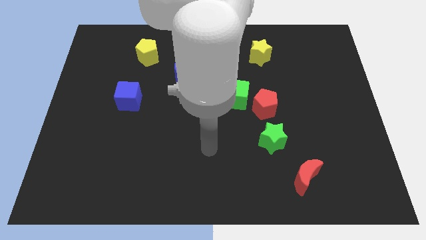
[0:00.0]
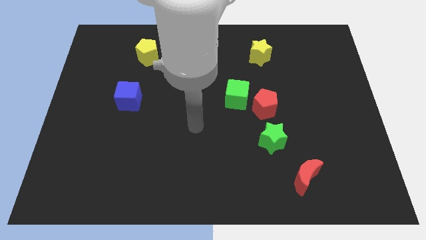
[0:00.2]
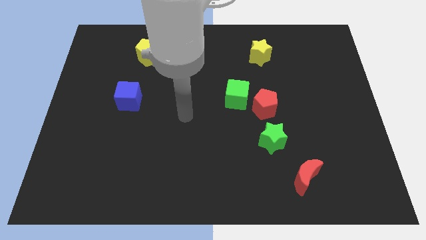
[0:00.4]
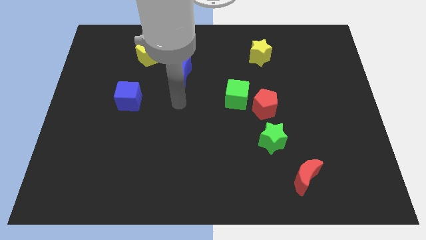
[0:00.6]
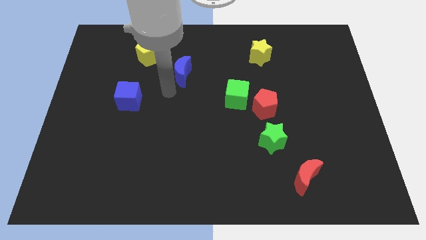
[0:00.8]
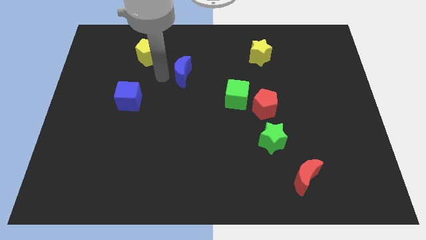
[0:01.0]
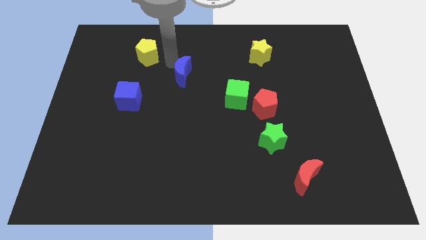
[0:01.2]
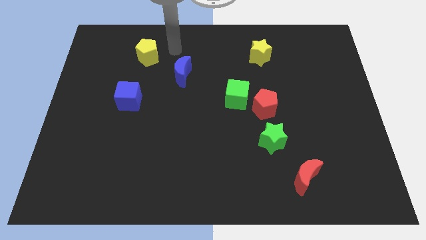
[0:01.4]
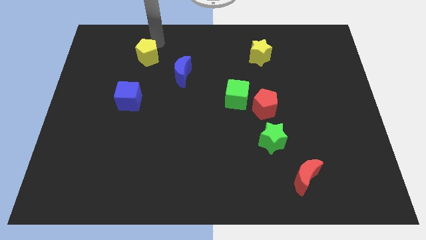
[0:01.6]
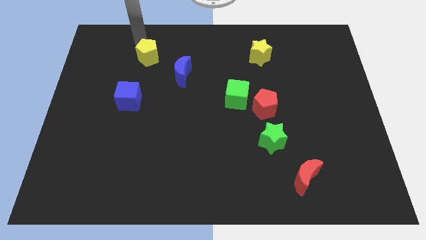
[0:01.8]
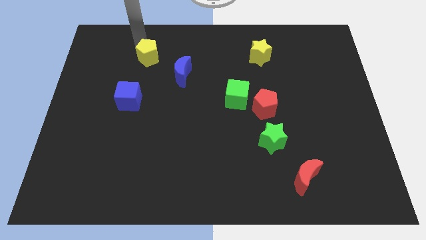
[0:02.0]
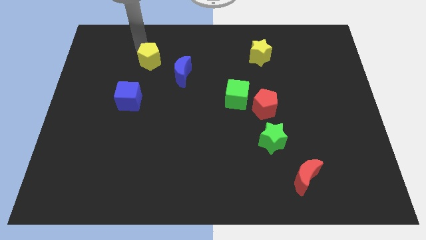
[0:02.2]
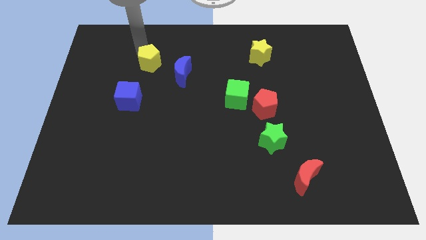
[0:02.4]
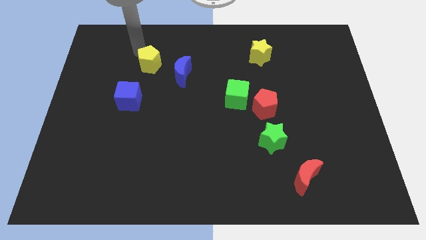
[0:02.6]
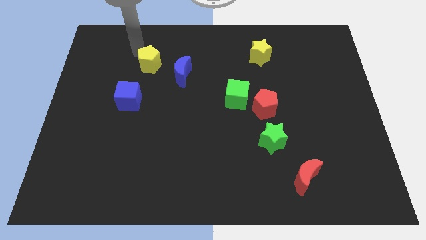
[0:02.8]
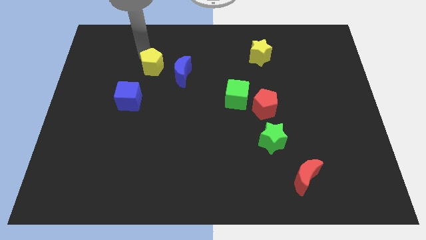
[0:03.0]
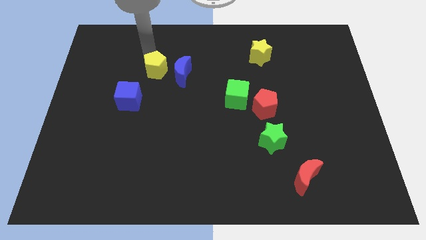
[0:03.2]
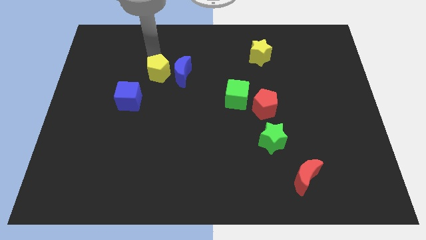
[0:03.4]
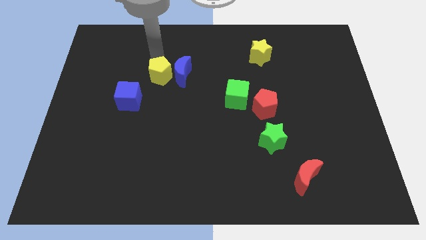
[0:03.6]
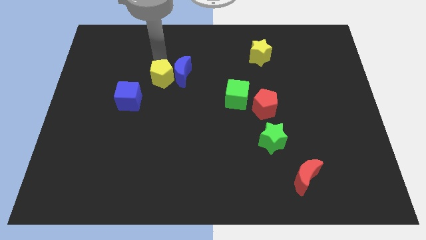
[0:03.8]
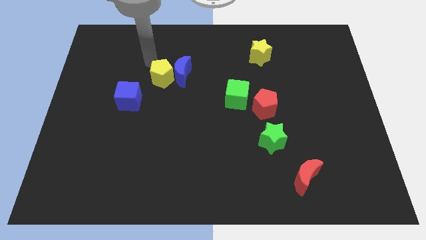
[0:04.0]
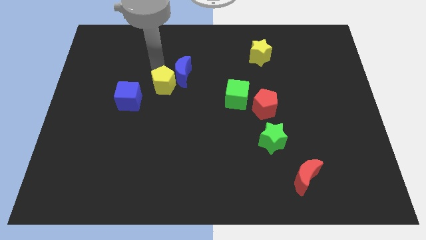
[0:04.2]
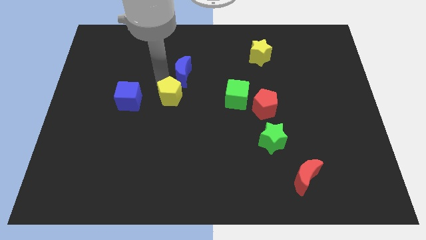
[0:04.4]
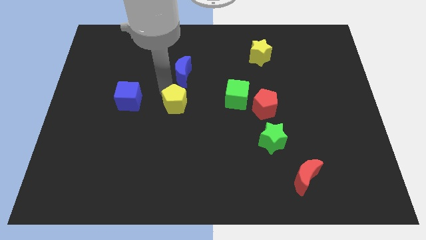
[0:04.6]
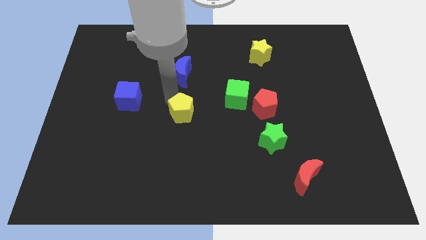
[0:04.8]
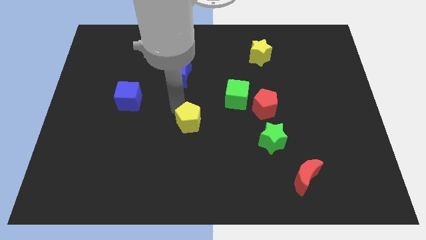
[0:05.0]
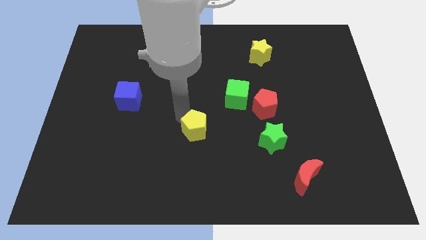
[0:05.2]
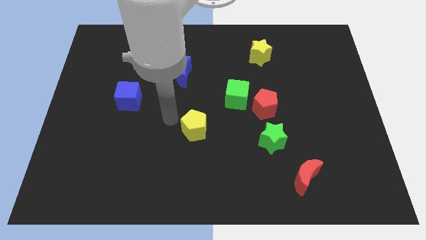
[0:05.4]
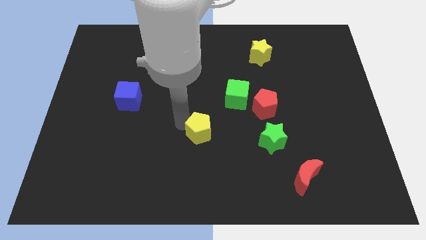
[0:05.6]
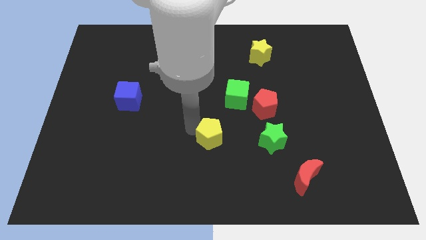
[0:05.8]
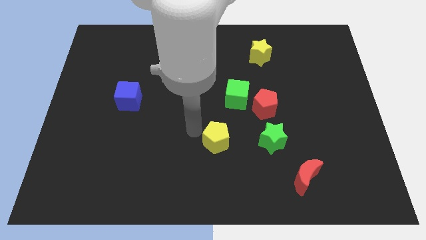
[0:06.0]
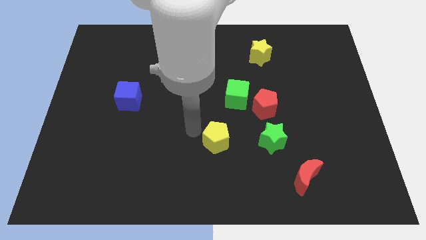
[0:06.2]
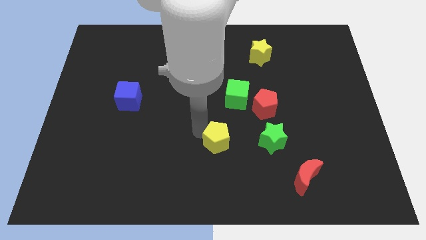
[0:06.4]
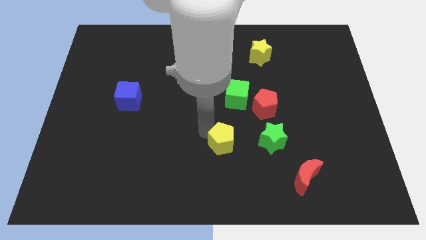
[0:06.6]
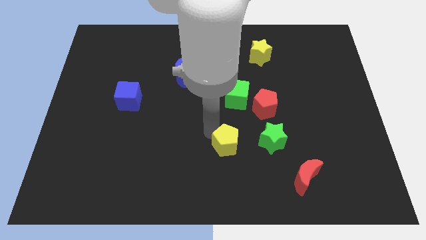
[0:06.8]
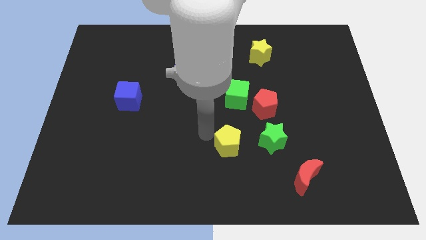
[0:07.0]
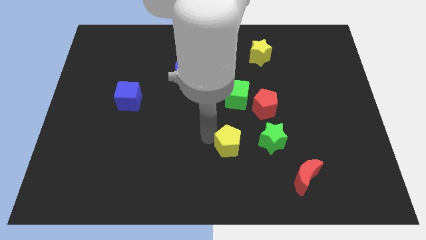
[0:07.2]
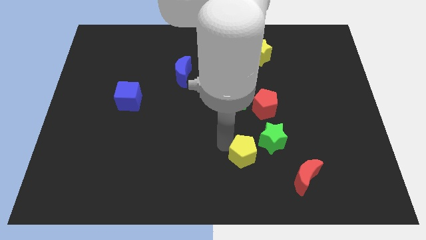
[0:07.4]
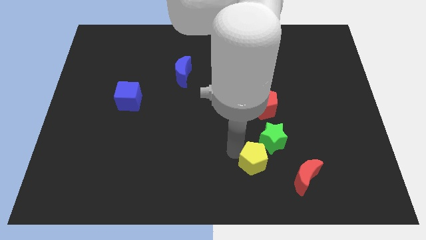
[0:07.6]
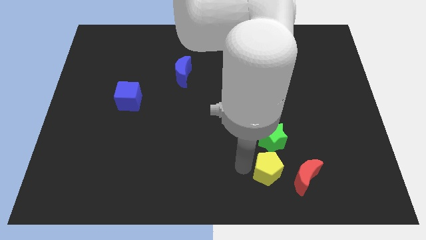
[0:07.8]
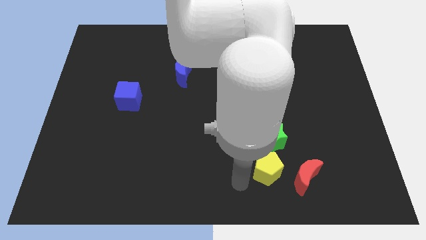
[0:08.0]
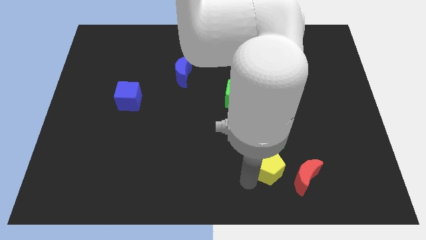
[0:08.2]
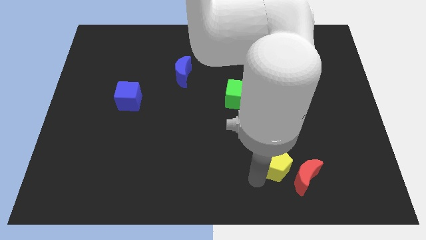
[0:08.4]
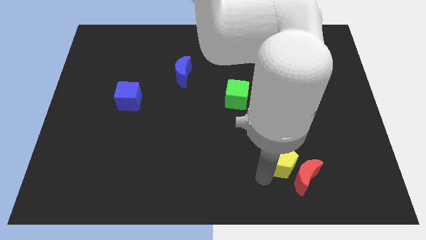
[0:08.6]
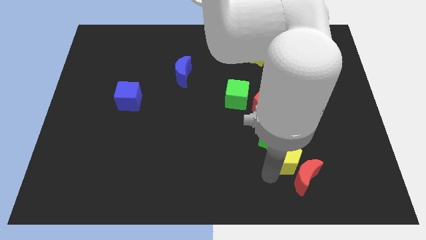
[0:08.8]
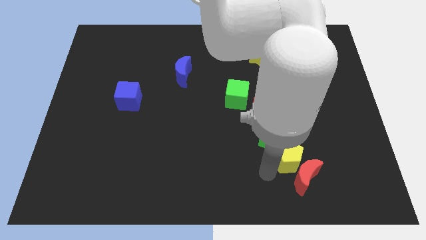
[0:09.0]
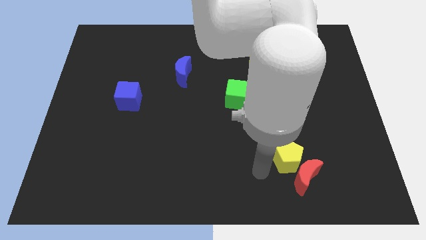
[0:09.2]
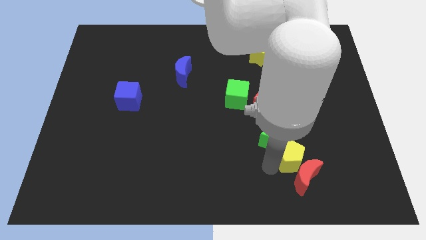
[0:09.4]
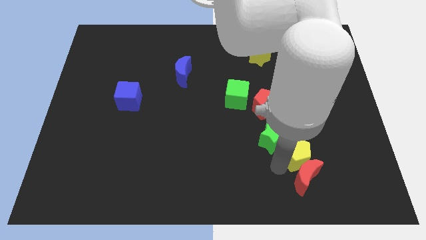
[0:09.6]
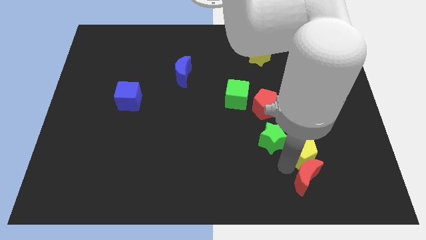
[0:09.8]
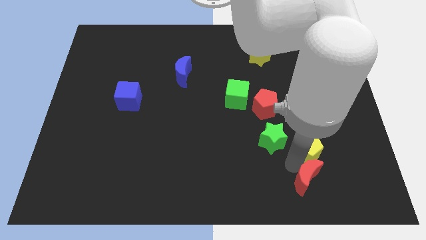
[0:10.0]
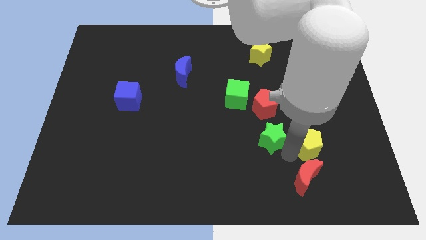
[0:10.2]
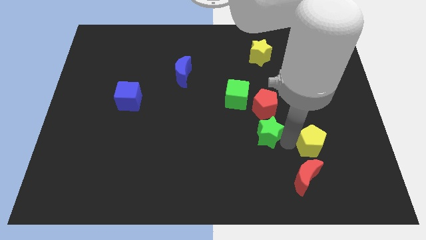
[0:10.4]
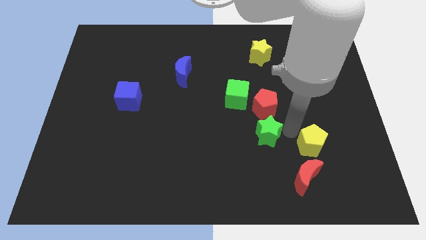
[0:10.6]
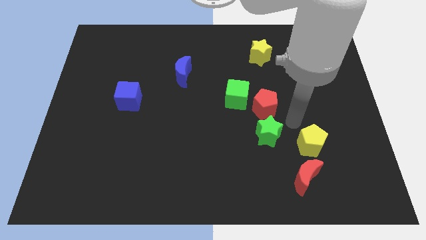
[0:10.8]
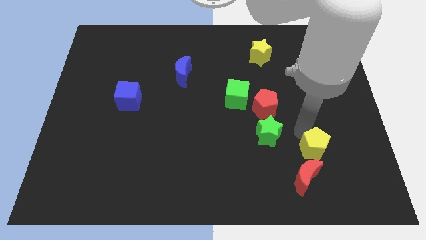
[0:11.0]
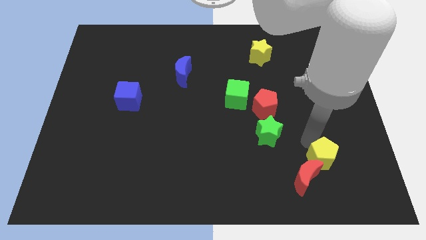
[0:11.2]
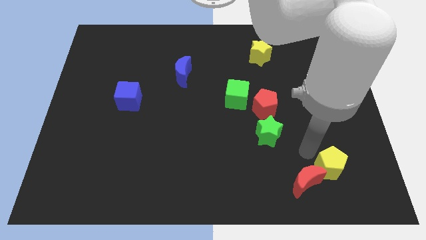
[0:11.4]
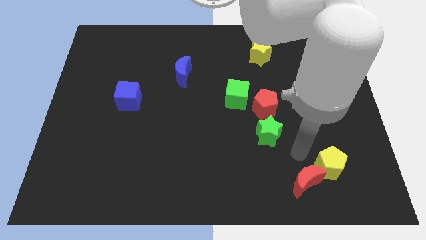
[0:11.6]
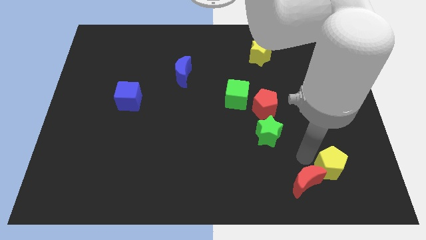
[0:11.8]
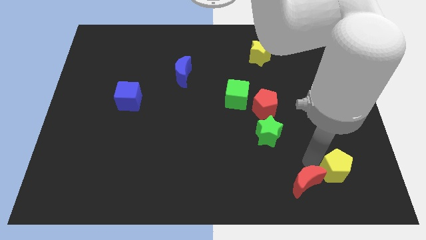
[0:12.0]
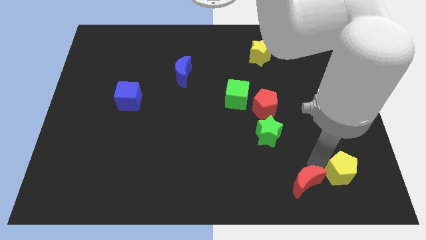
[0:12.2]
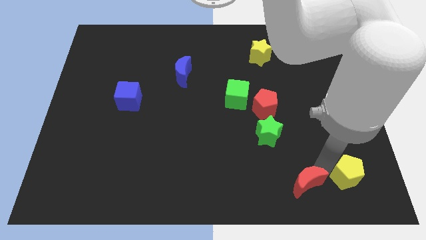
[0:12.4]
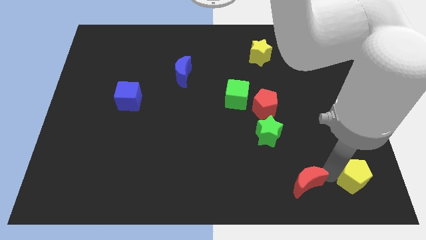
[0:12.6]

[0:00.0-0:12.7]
slide the yellow pentagon to the bottom right
